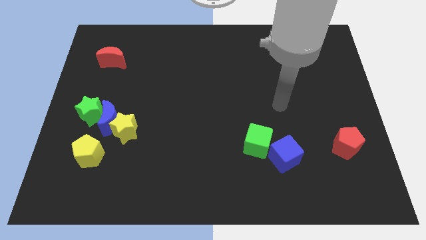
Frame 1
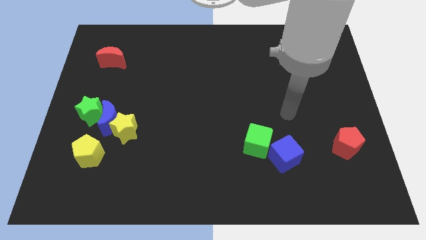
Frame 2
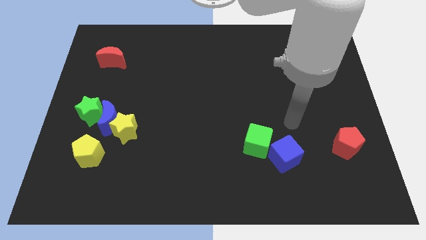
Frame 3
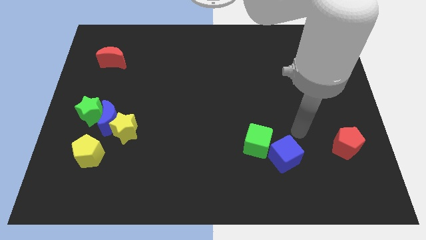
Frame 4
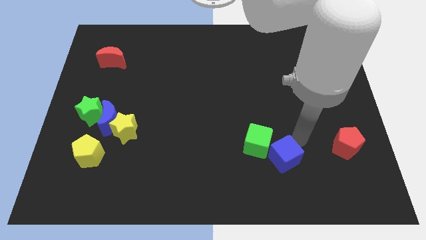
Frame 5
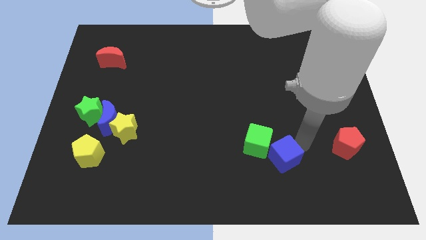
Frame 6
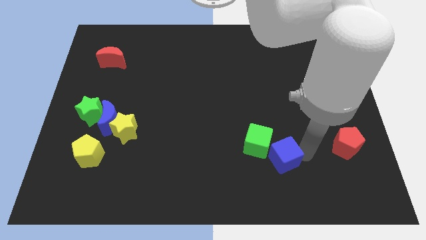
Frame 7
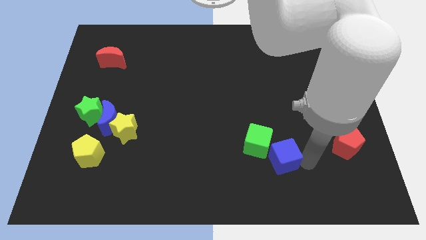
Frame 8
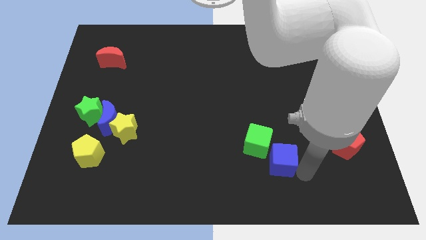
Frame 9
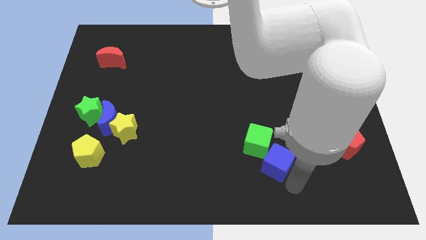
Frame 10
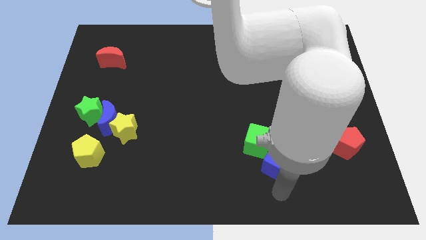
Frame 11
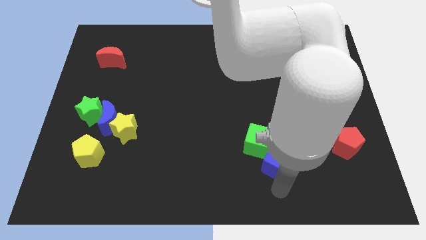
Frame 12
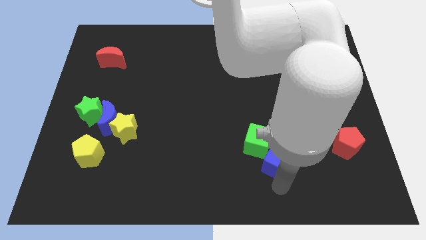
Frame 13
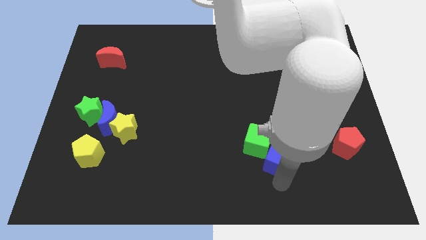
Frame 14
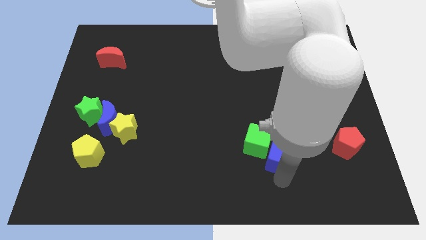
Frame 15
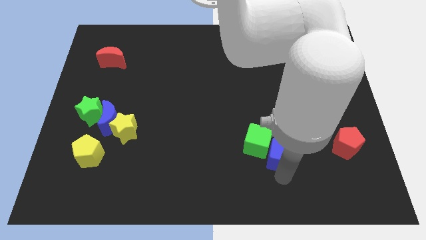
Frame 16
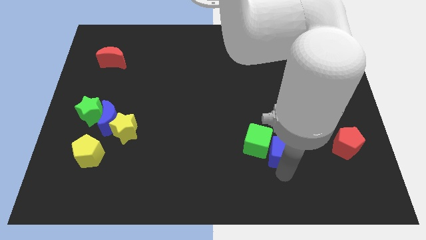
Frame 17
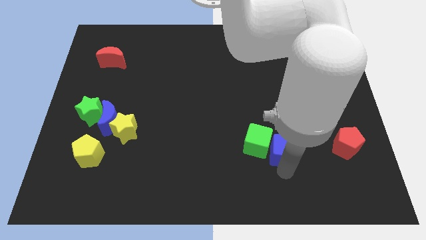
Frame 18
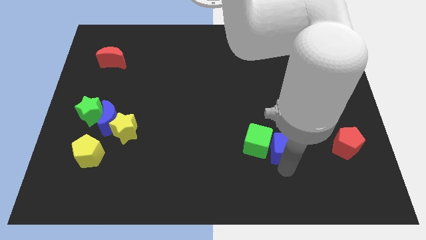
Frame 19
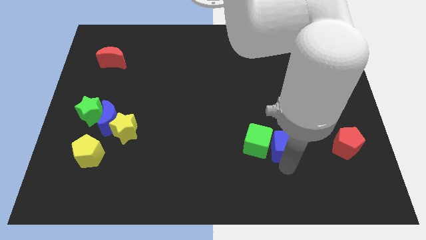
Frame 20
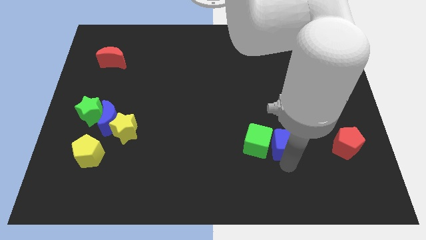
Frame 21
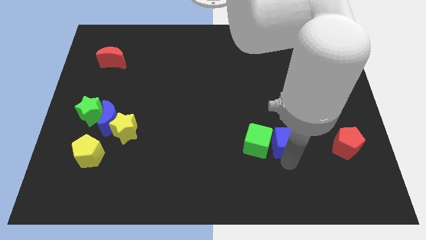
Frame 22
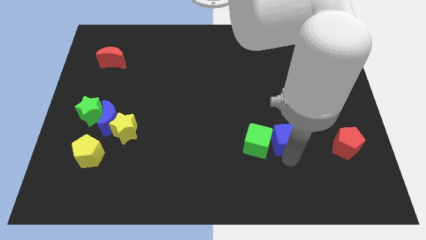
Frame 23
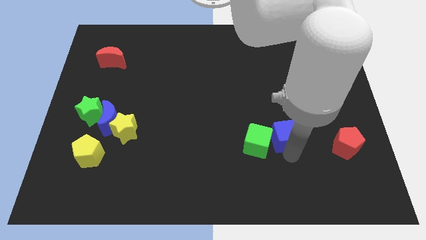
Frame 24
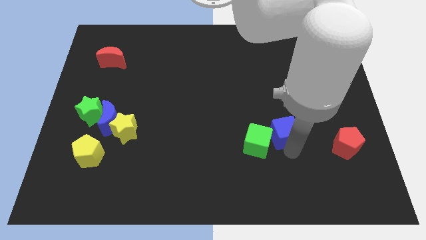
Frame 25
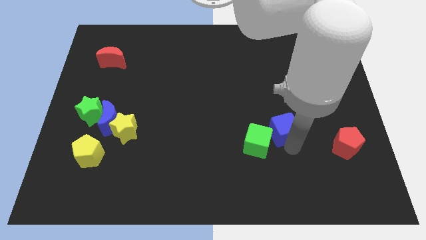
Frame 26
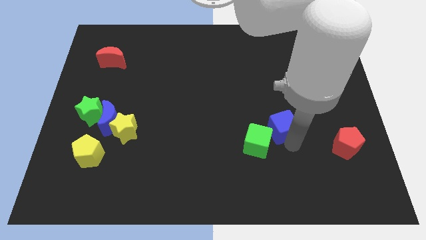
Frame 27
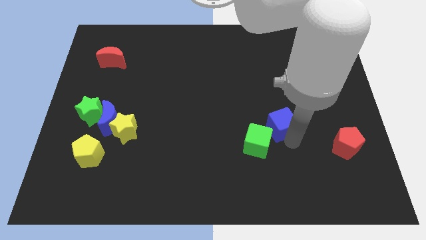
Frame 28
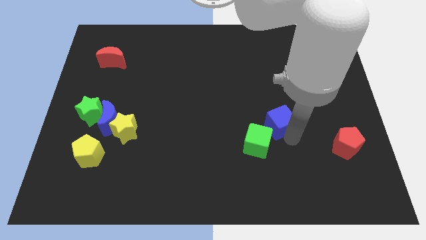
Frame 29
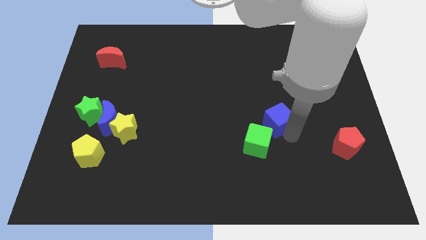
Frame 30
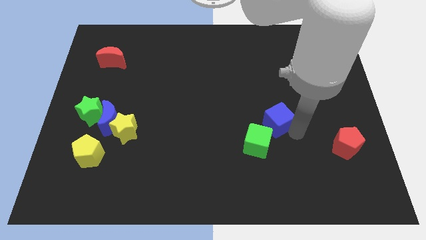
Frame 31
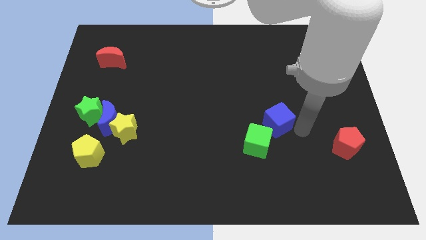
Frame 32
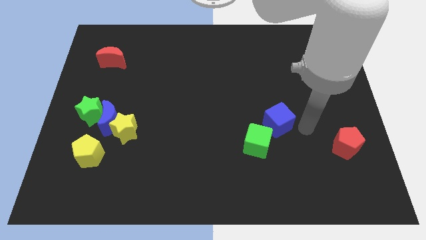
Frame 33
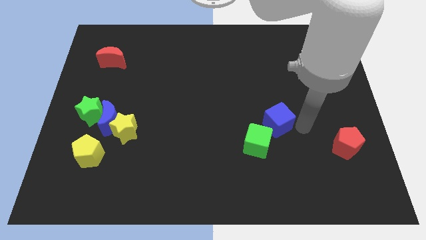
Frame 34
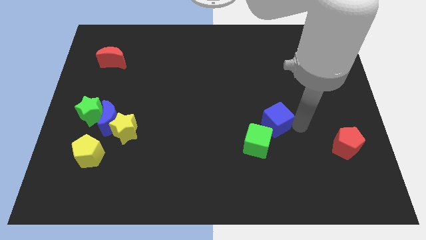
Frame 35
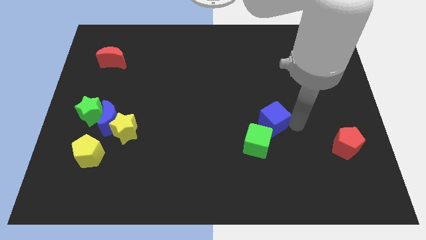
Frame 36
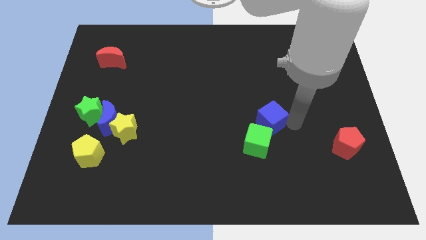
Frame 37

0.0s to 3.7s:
push the blue cube diagonally up and left slightly

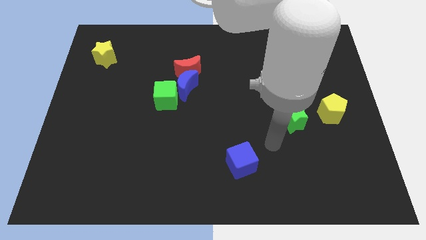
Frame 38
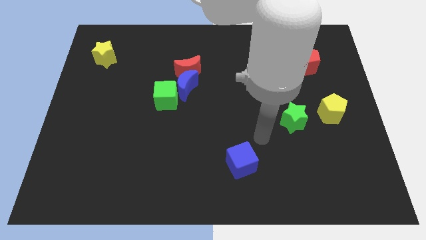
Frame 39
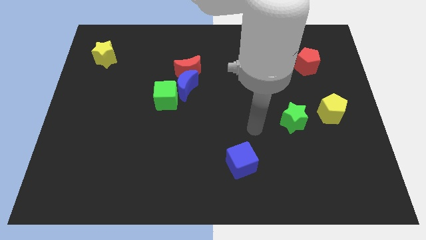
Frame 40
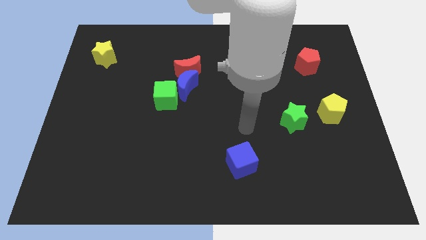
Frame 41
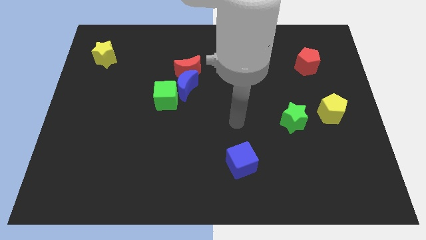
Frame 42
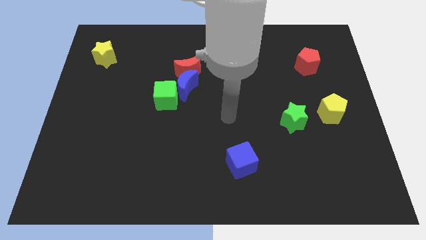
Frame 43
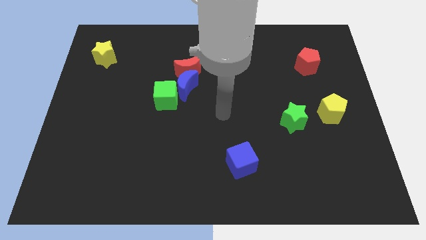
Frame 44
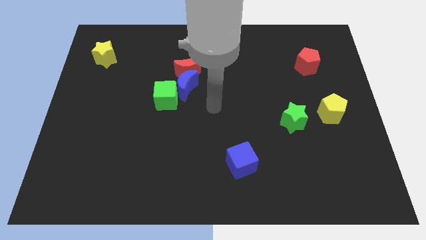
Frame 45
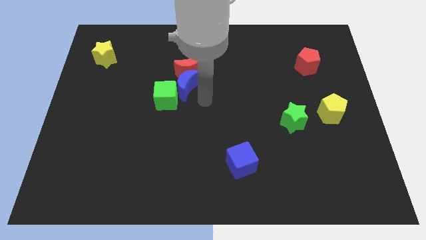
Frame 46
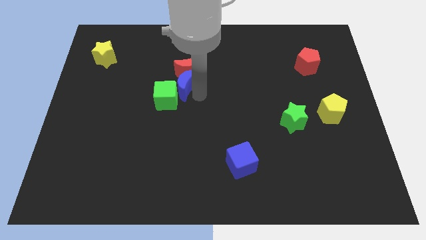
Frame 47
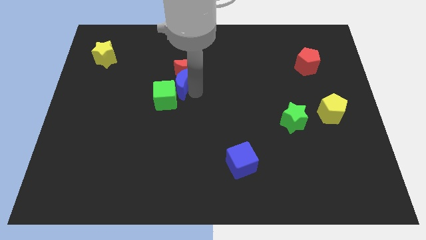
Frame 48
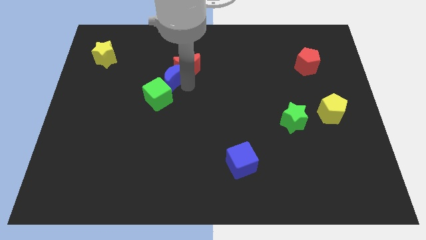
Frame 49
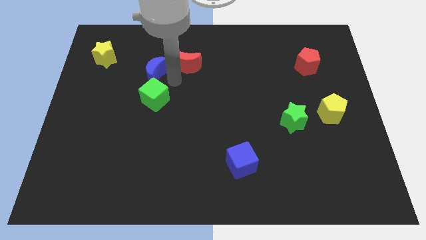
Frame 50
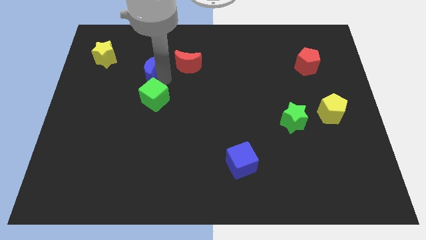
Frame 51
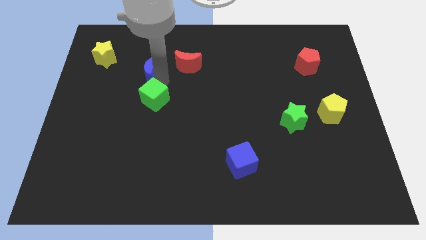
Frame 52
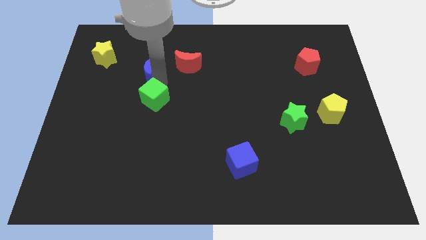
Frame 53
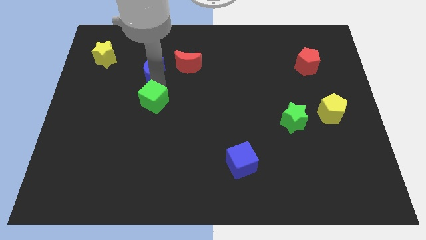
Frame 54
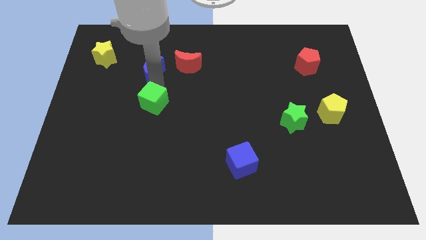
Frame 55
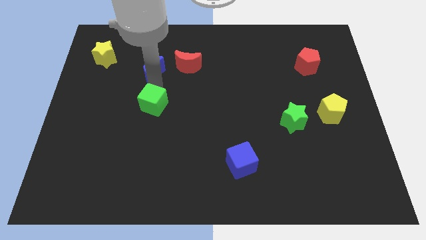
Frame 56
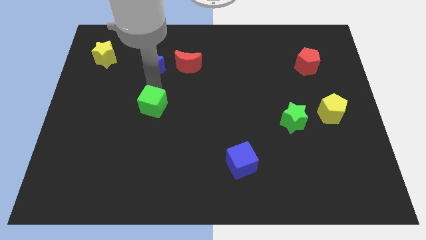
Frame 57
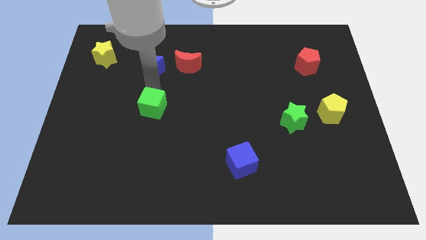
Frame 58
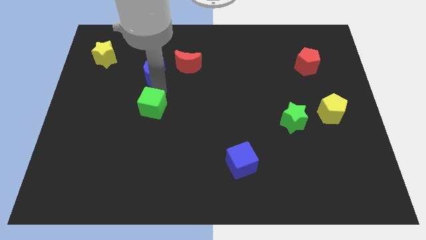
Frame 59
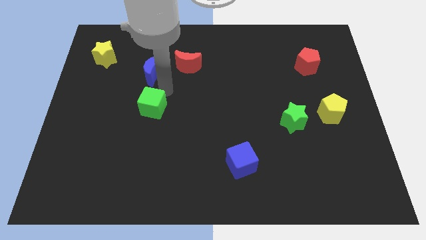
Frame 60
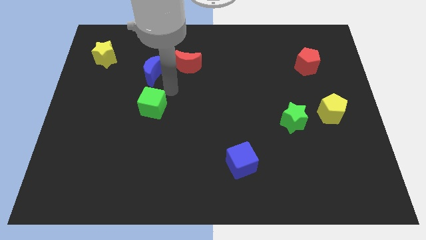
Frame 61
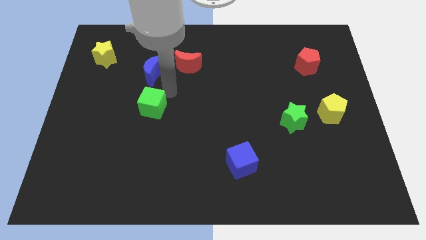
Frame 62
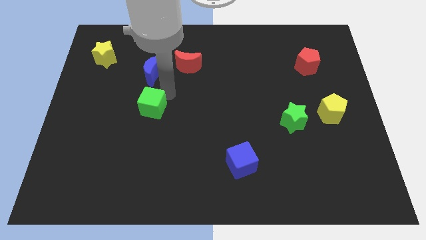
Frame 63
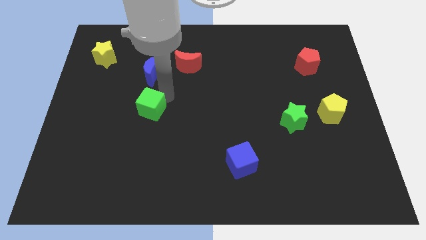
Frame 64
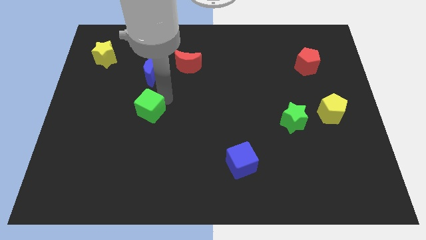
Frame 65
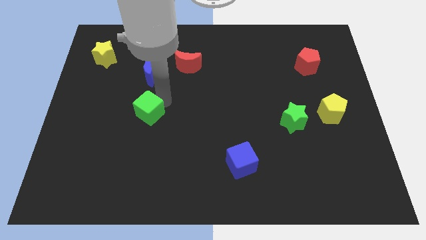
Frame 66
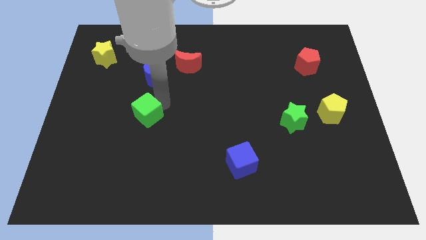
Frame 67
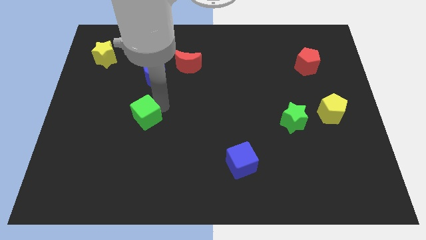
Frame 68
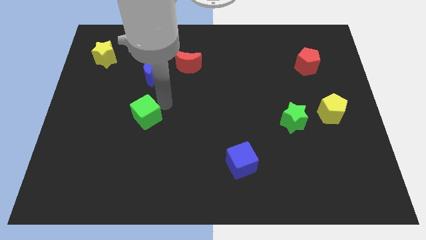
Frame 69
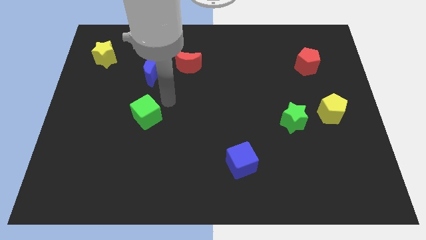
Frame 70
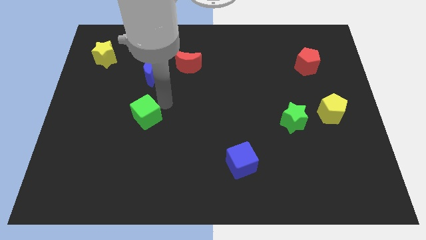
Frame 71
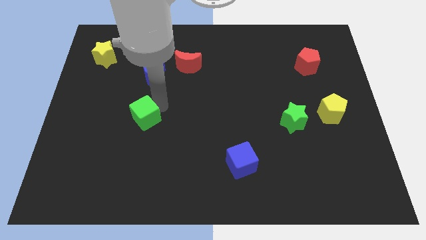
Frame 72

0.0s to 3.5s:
slightly move the green cube diagonally downwards and to the left

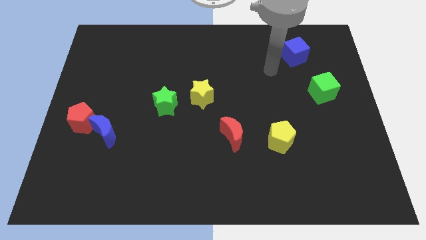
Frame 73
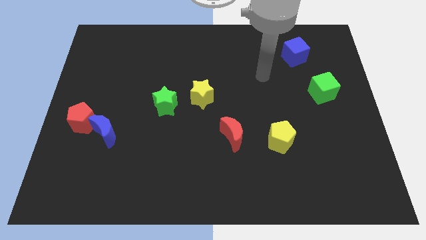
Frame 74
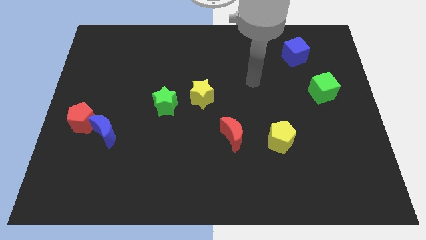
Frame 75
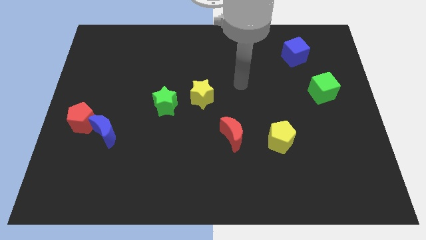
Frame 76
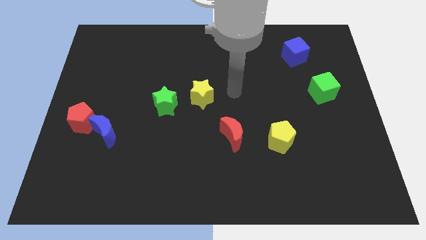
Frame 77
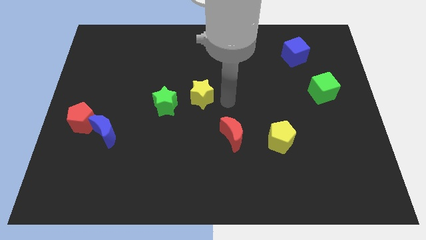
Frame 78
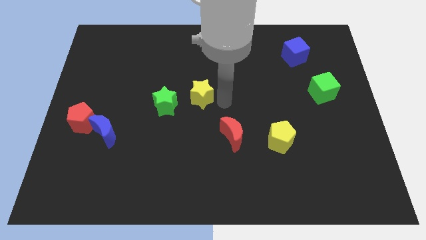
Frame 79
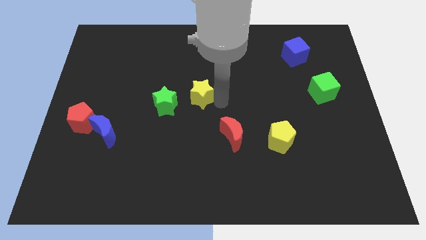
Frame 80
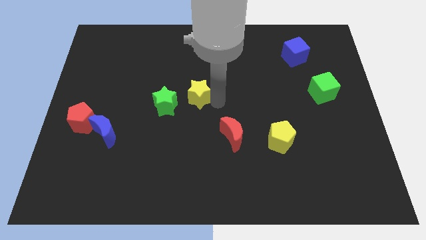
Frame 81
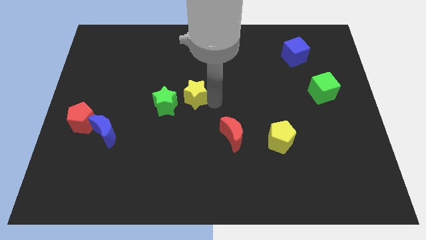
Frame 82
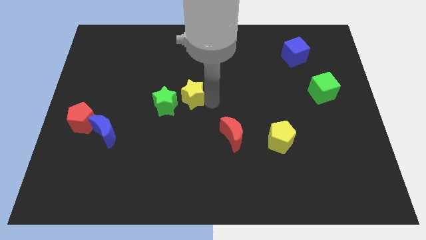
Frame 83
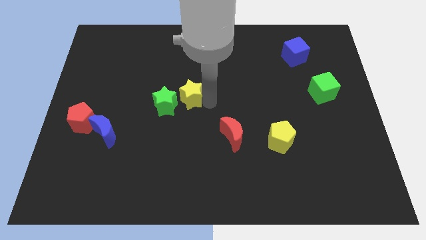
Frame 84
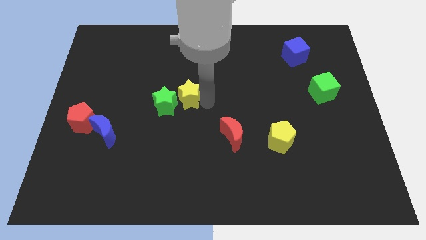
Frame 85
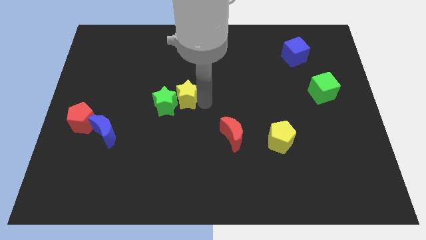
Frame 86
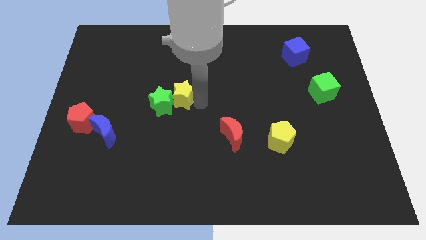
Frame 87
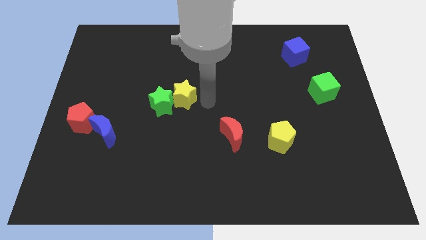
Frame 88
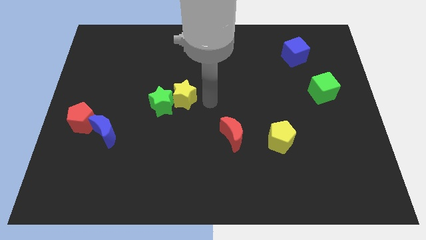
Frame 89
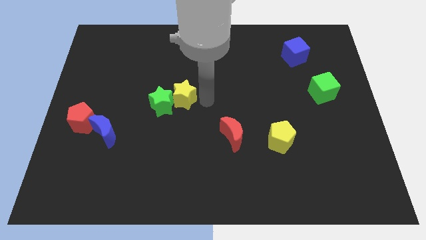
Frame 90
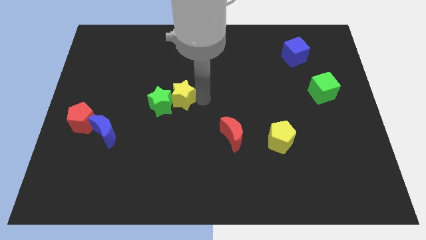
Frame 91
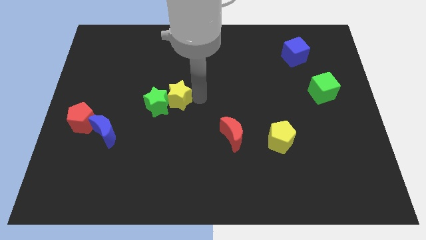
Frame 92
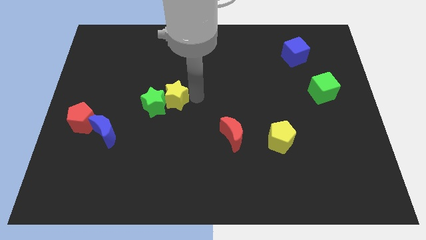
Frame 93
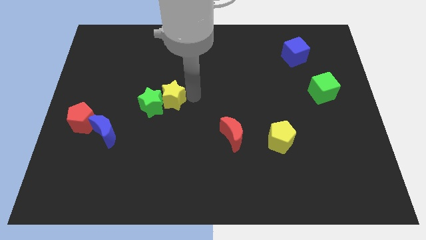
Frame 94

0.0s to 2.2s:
slightly move the yellow star to the left
